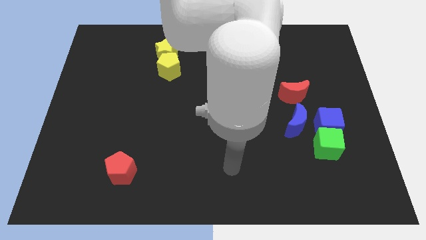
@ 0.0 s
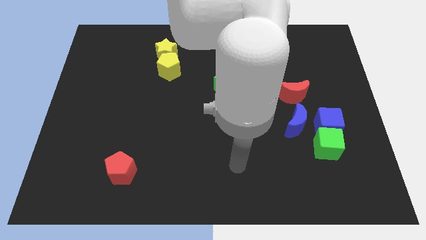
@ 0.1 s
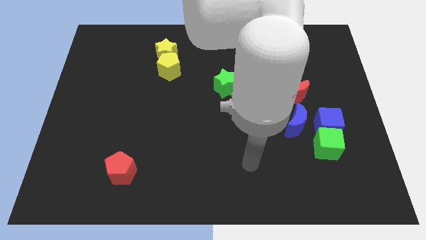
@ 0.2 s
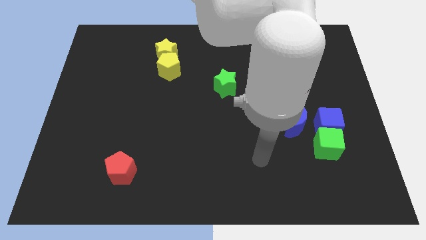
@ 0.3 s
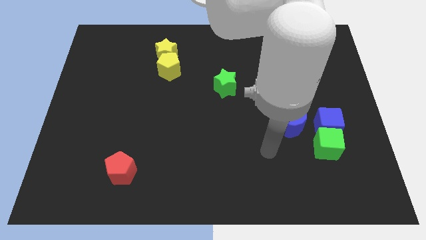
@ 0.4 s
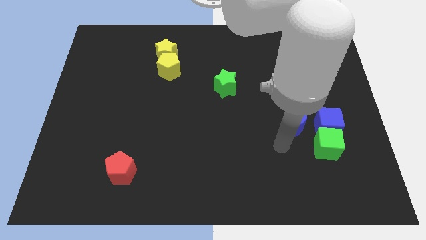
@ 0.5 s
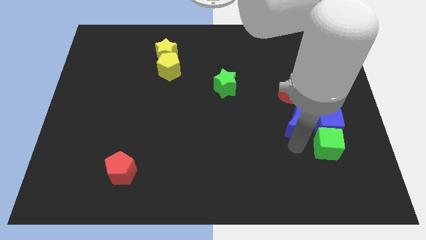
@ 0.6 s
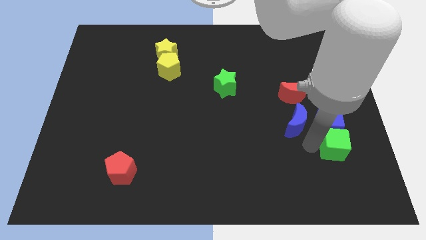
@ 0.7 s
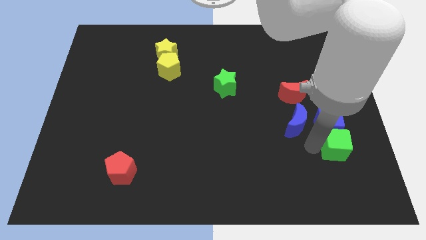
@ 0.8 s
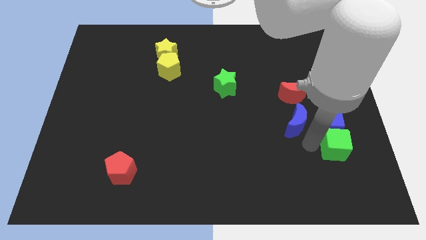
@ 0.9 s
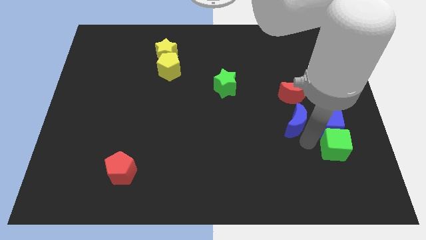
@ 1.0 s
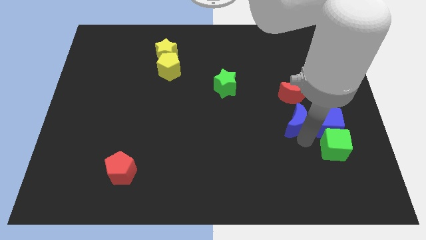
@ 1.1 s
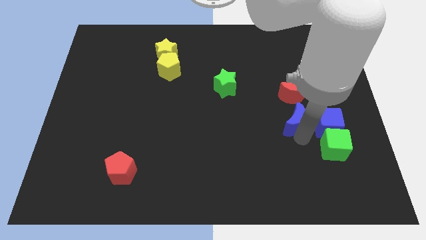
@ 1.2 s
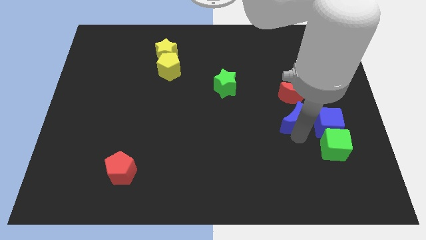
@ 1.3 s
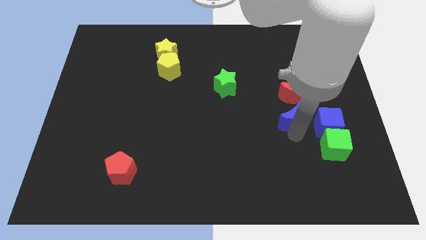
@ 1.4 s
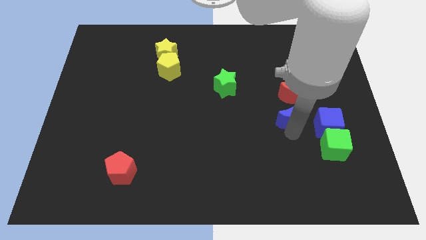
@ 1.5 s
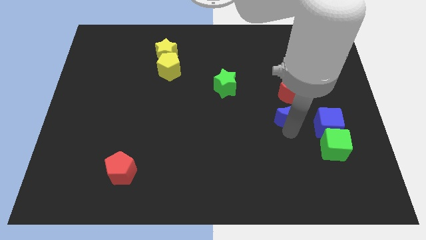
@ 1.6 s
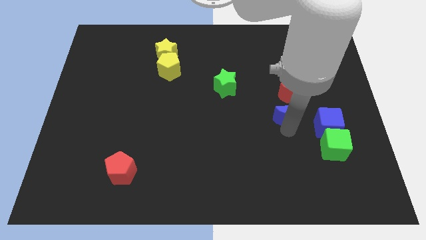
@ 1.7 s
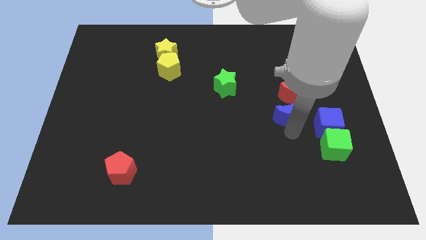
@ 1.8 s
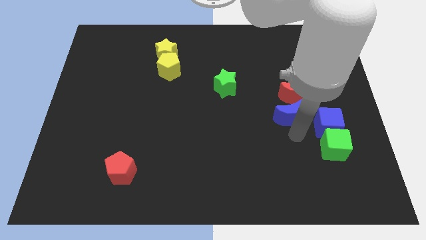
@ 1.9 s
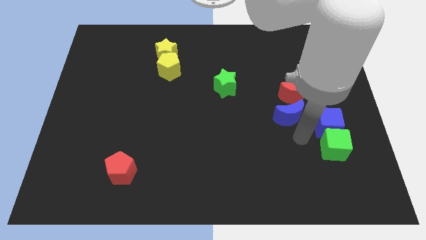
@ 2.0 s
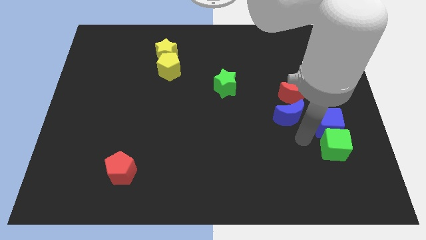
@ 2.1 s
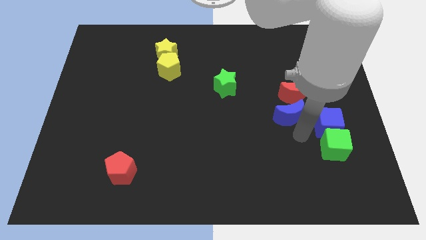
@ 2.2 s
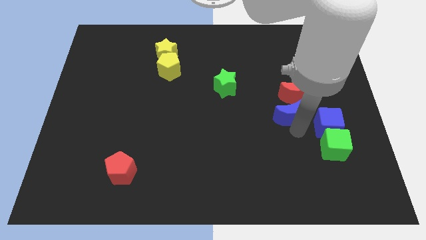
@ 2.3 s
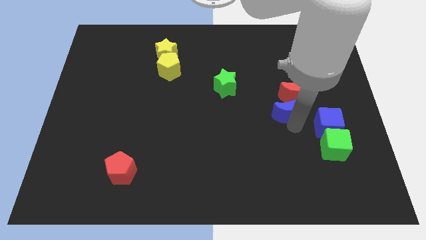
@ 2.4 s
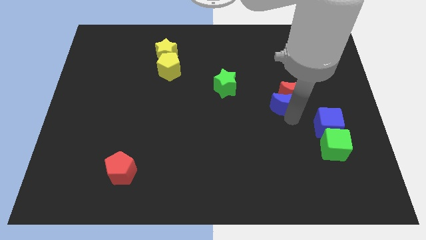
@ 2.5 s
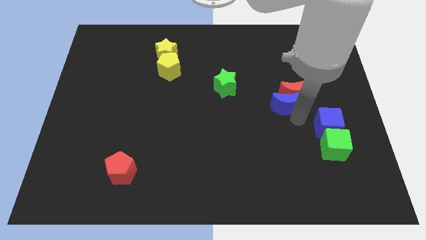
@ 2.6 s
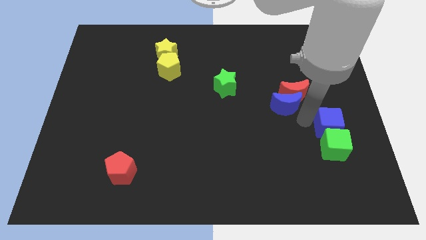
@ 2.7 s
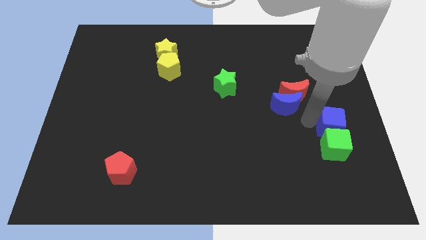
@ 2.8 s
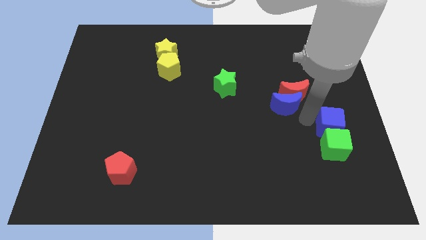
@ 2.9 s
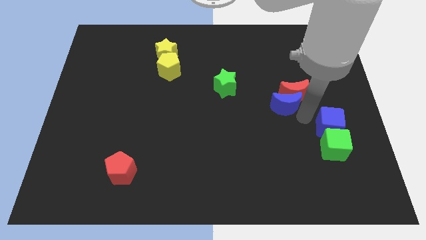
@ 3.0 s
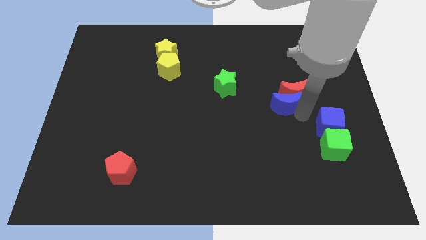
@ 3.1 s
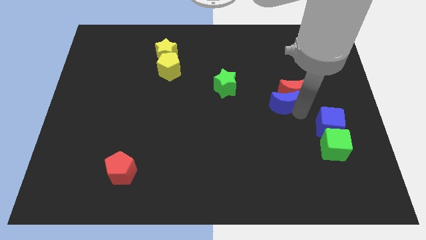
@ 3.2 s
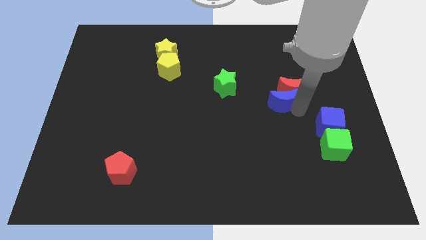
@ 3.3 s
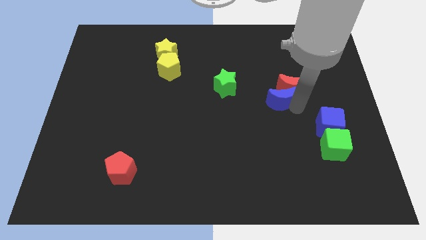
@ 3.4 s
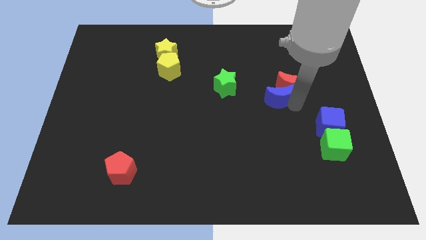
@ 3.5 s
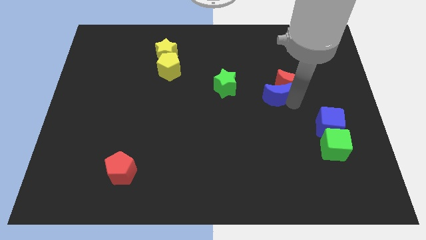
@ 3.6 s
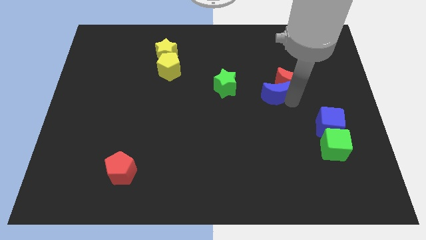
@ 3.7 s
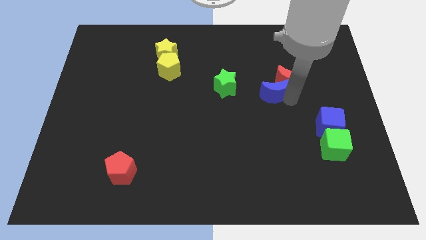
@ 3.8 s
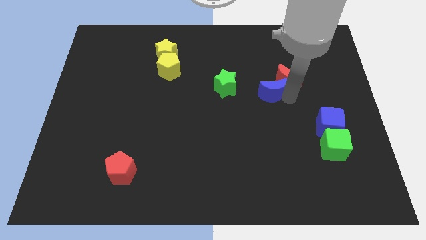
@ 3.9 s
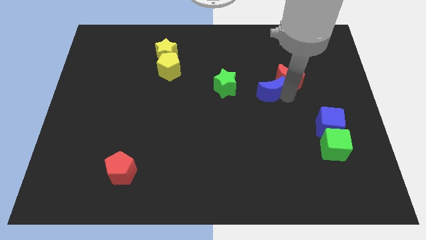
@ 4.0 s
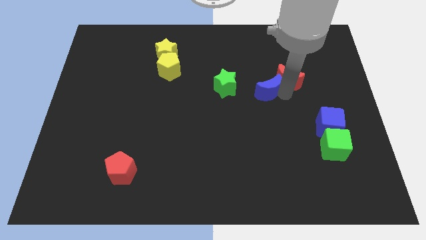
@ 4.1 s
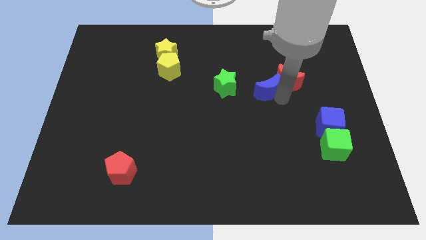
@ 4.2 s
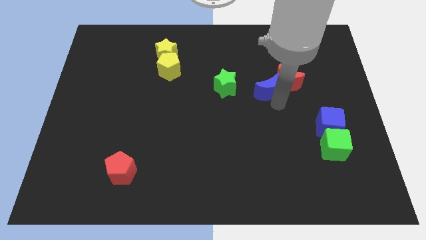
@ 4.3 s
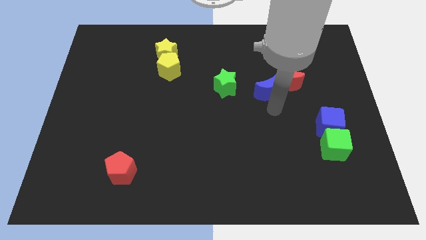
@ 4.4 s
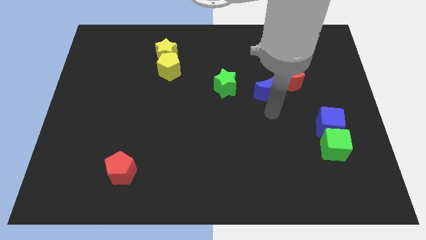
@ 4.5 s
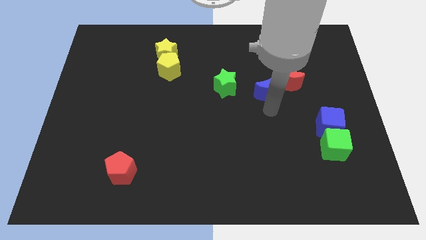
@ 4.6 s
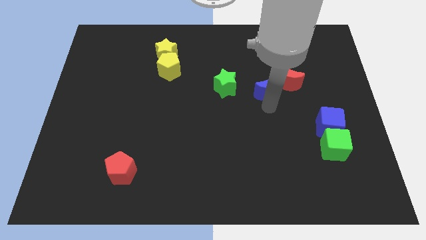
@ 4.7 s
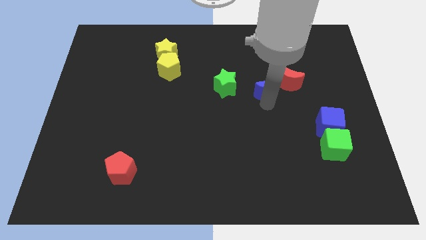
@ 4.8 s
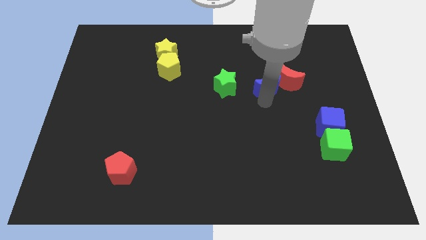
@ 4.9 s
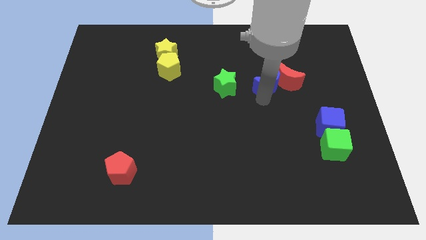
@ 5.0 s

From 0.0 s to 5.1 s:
slide the blue moon to the top left side of the red moon
